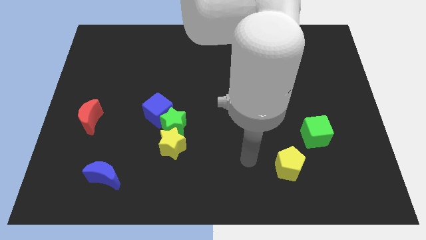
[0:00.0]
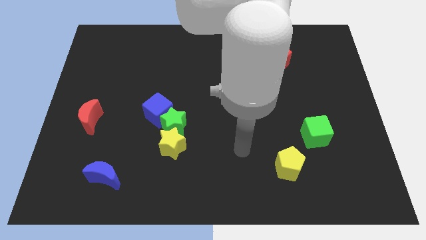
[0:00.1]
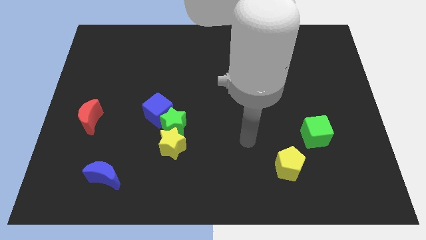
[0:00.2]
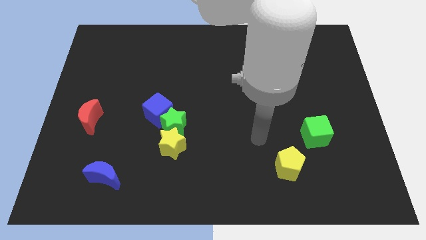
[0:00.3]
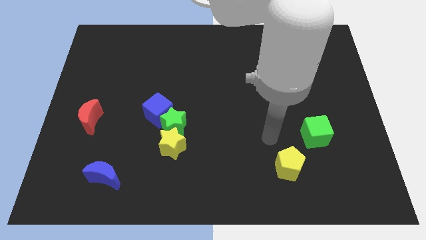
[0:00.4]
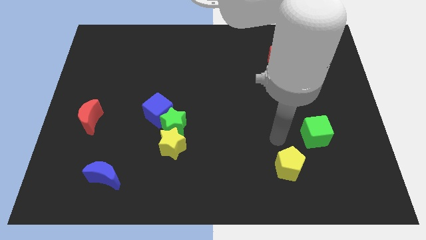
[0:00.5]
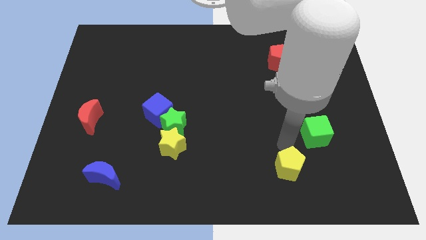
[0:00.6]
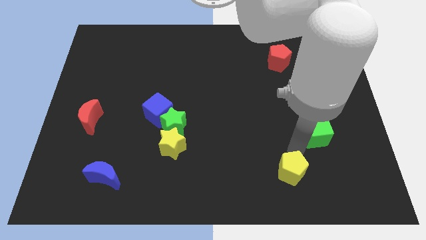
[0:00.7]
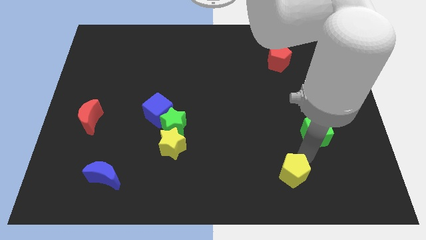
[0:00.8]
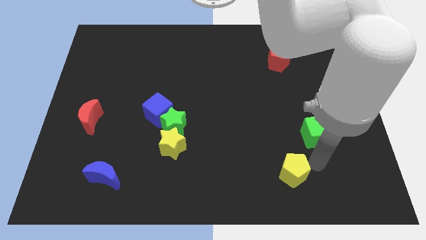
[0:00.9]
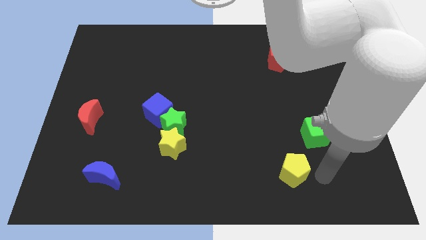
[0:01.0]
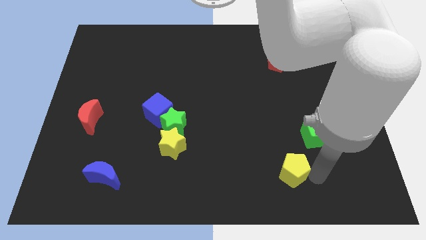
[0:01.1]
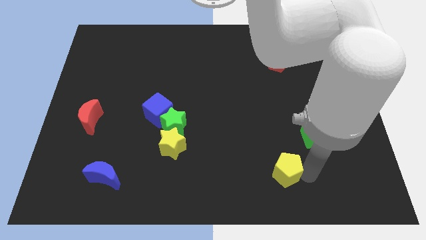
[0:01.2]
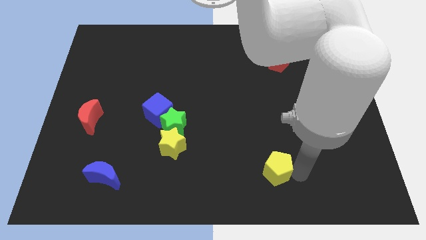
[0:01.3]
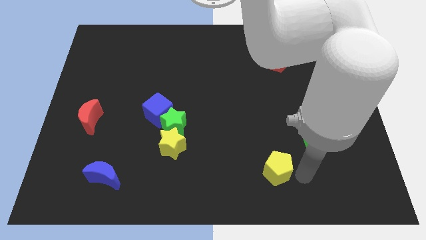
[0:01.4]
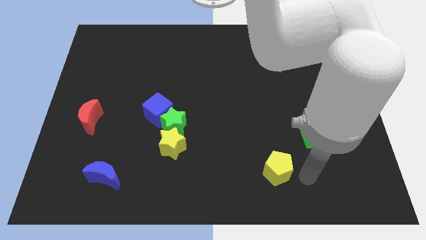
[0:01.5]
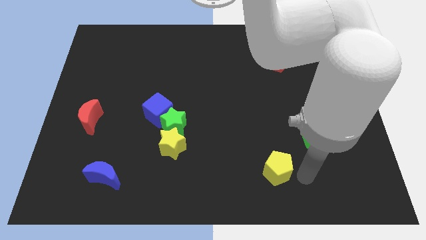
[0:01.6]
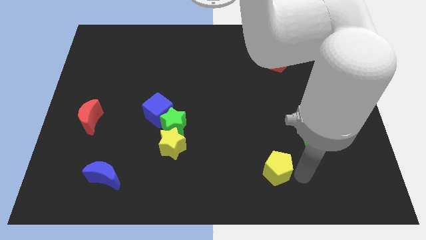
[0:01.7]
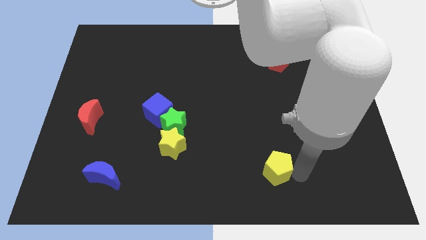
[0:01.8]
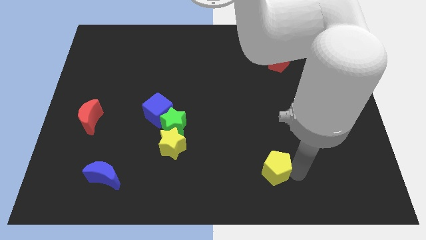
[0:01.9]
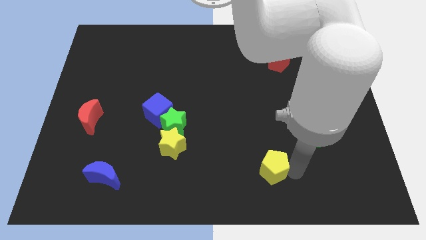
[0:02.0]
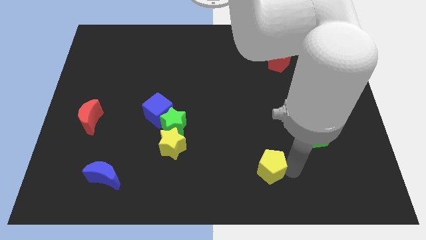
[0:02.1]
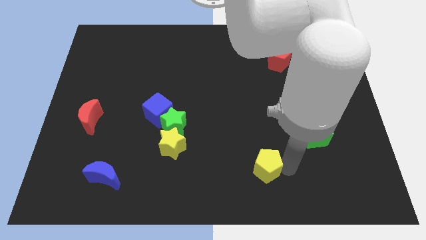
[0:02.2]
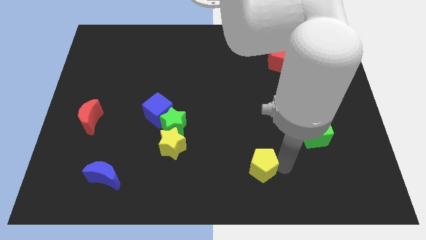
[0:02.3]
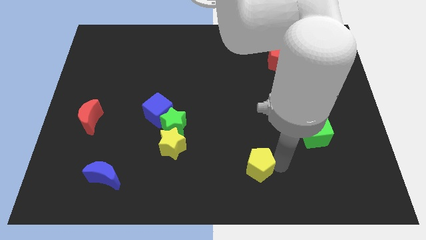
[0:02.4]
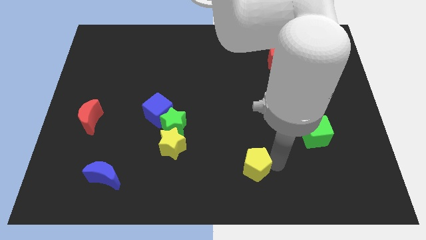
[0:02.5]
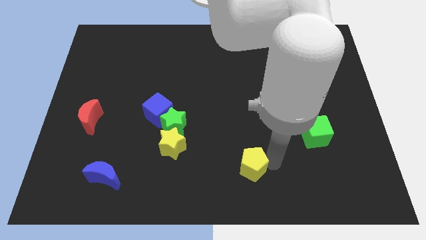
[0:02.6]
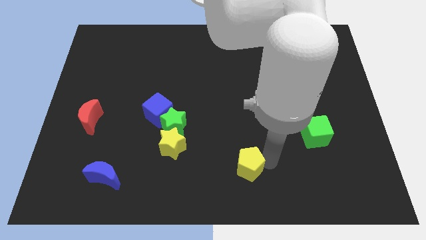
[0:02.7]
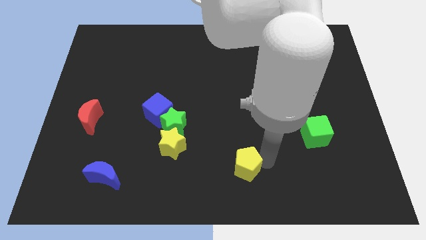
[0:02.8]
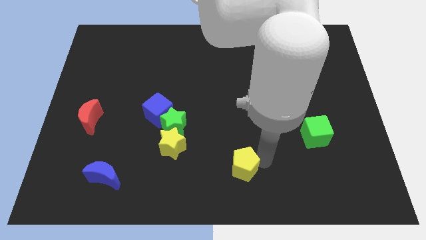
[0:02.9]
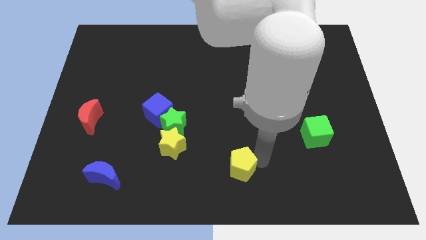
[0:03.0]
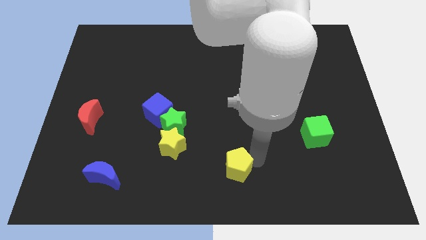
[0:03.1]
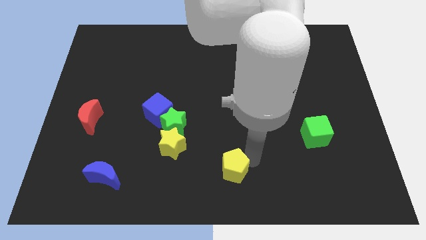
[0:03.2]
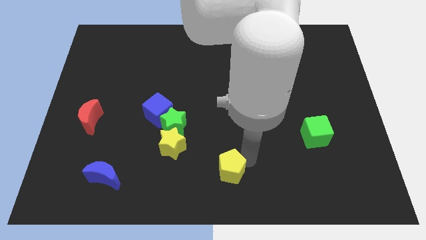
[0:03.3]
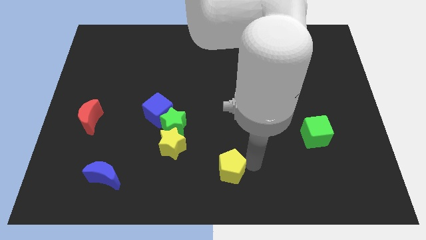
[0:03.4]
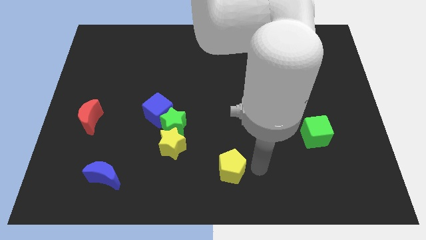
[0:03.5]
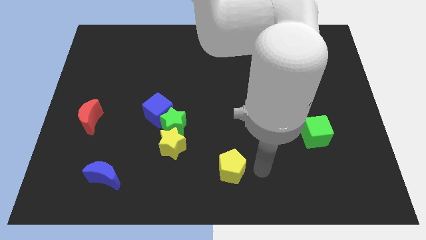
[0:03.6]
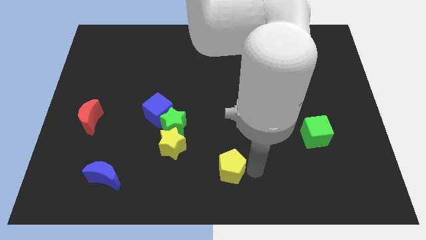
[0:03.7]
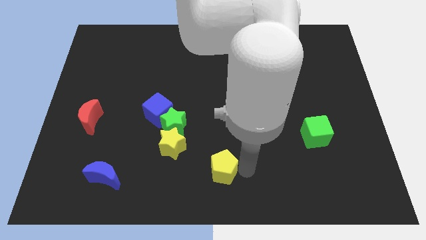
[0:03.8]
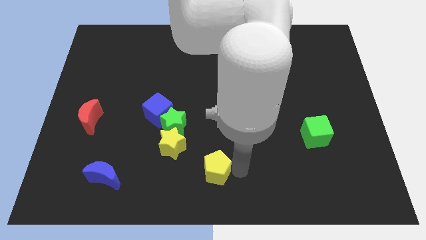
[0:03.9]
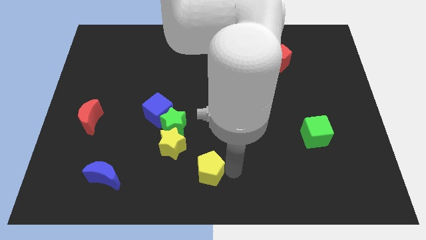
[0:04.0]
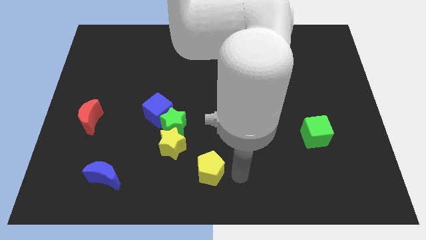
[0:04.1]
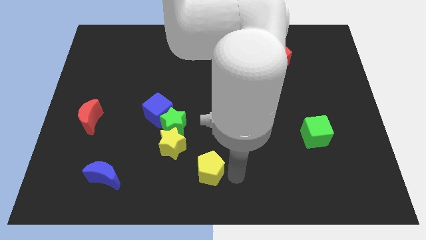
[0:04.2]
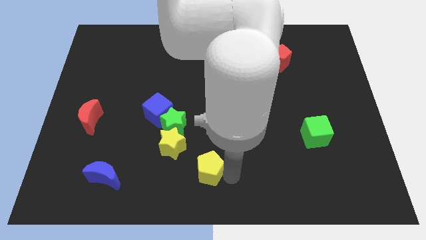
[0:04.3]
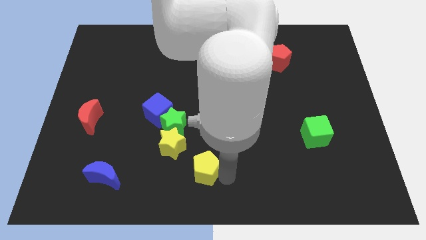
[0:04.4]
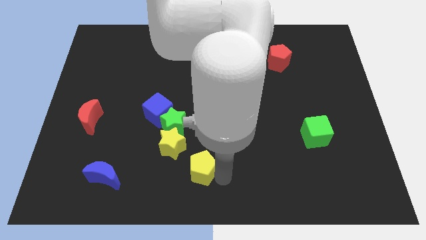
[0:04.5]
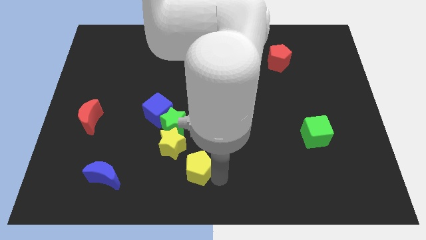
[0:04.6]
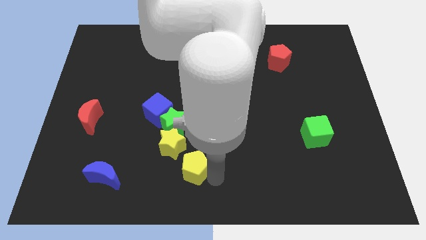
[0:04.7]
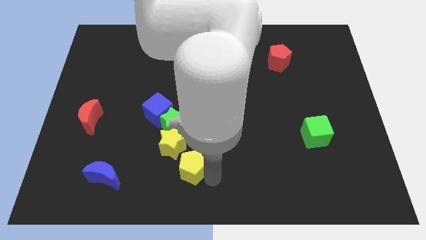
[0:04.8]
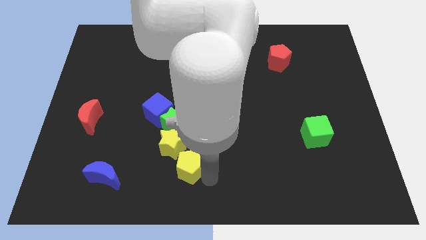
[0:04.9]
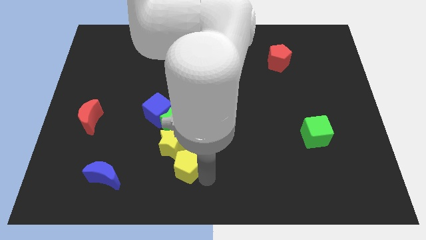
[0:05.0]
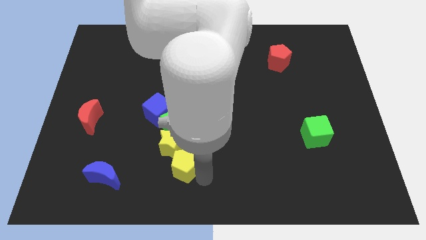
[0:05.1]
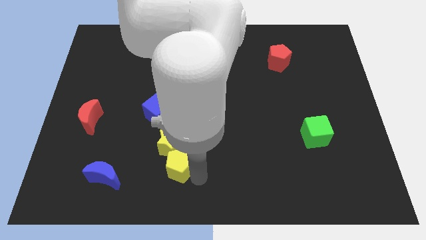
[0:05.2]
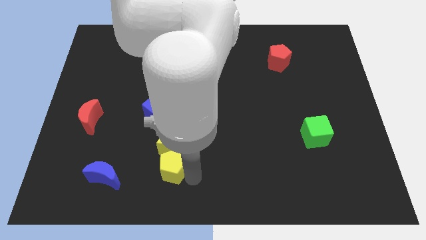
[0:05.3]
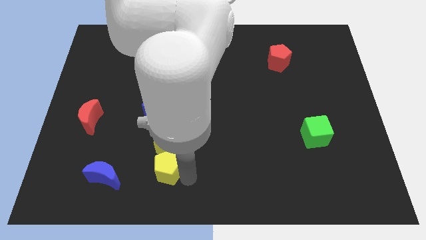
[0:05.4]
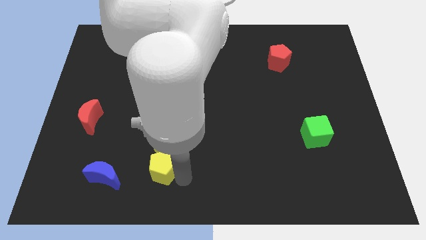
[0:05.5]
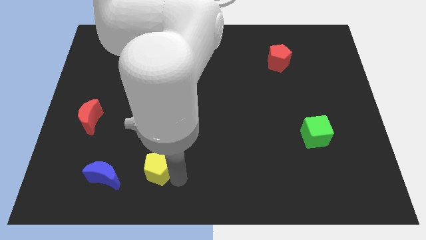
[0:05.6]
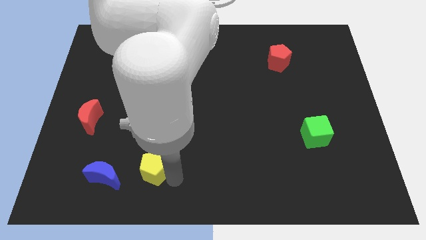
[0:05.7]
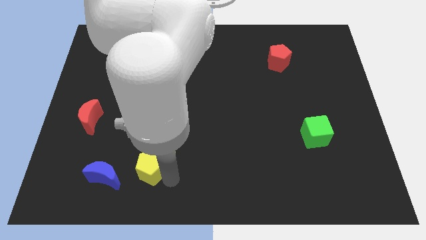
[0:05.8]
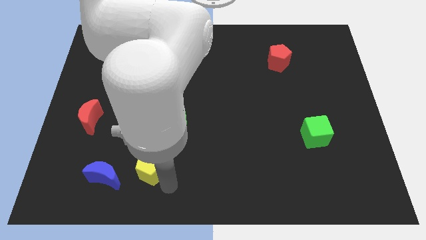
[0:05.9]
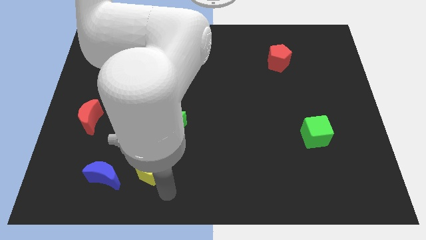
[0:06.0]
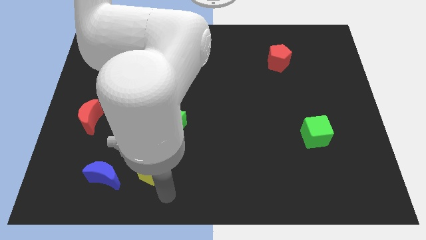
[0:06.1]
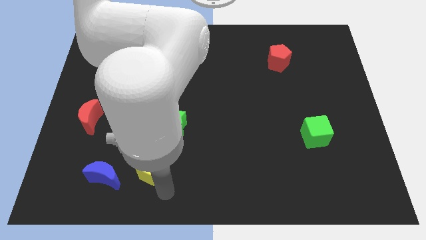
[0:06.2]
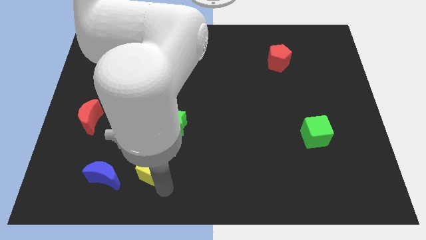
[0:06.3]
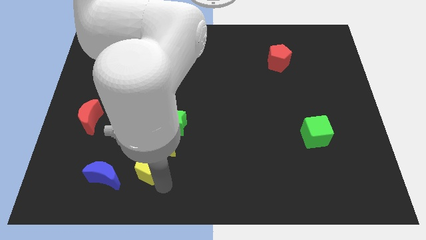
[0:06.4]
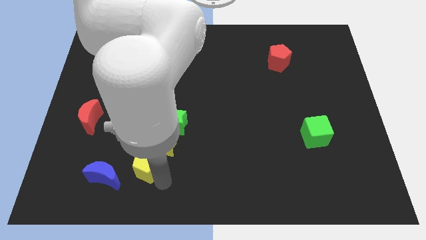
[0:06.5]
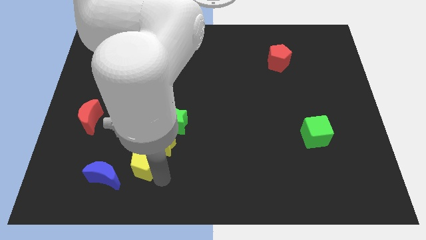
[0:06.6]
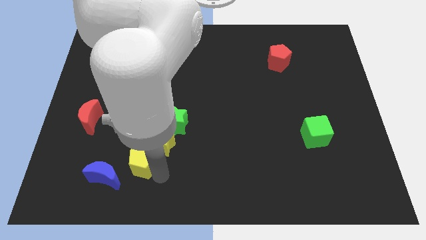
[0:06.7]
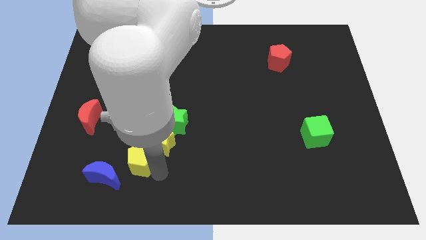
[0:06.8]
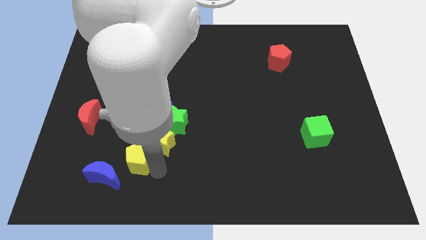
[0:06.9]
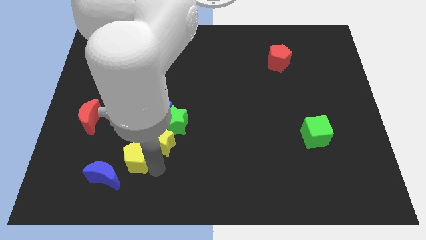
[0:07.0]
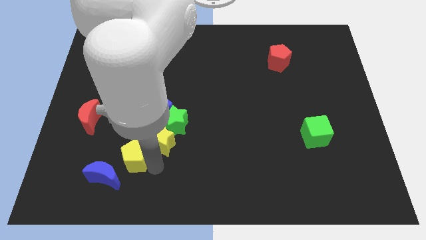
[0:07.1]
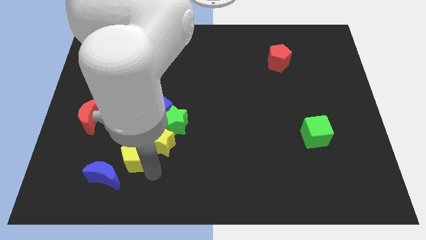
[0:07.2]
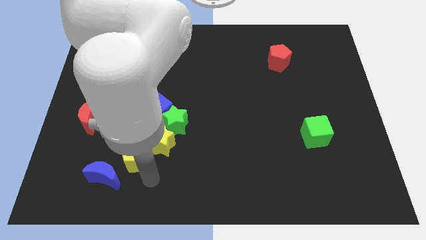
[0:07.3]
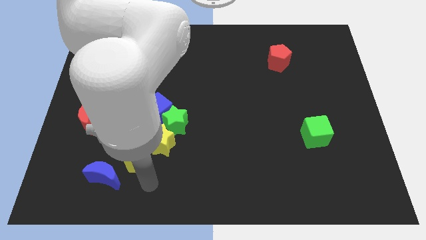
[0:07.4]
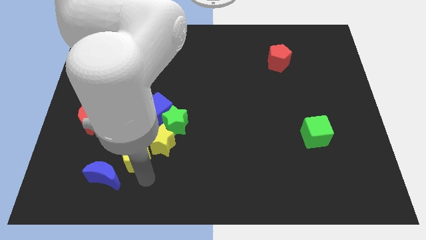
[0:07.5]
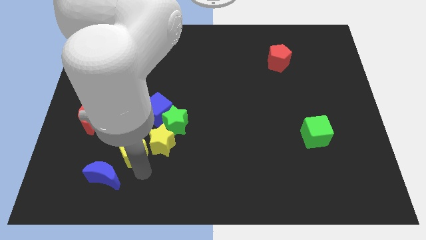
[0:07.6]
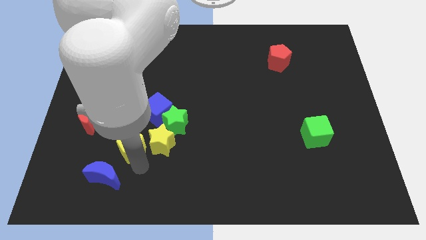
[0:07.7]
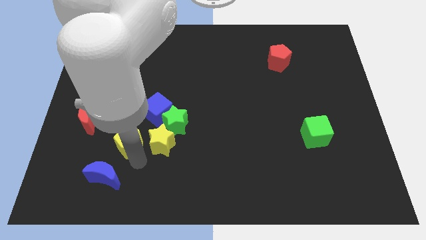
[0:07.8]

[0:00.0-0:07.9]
slide the yellow pentagon diagonally down and to the right of the red moon
